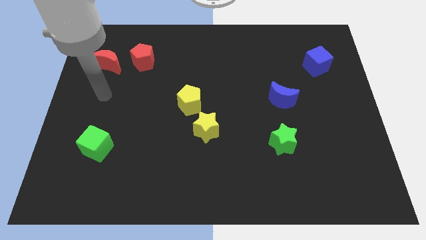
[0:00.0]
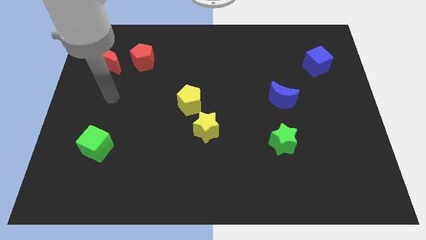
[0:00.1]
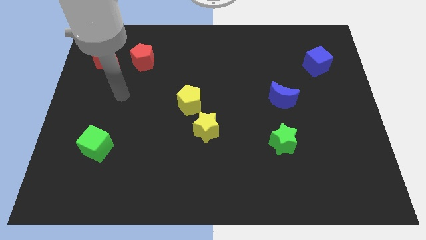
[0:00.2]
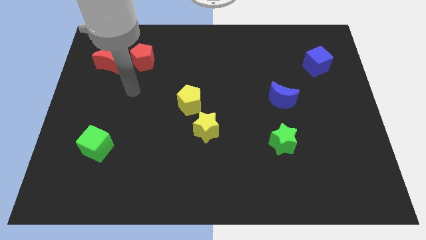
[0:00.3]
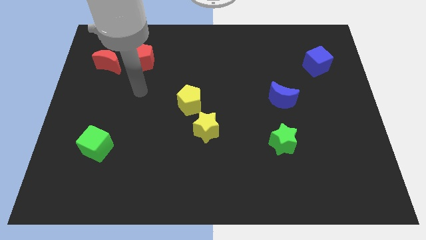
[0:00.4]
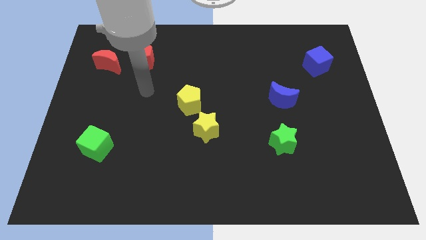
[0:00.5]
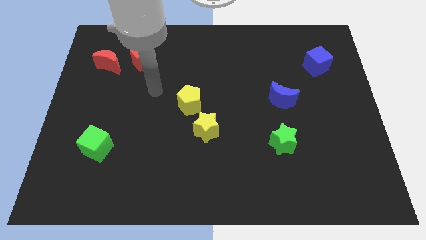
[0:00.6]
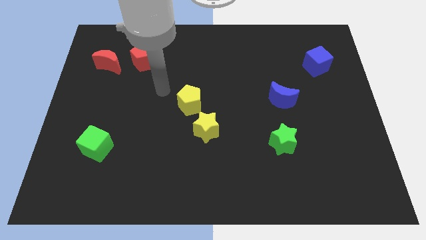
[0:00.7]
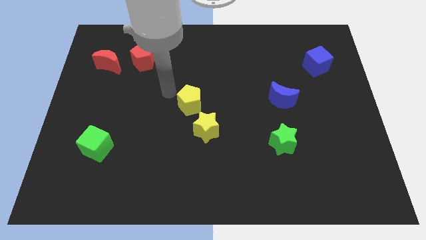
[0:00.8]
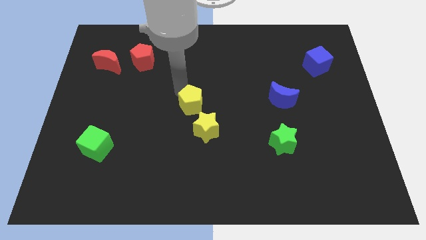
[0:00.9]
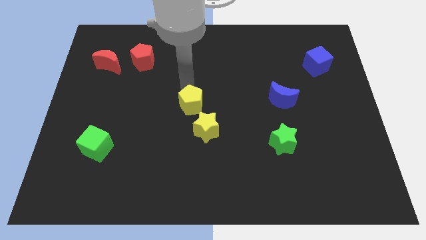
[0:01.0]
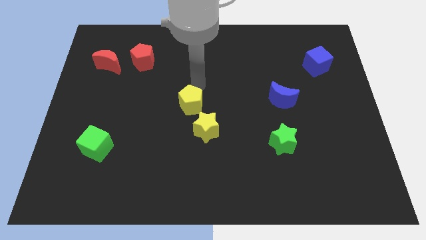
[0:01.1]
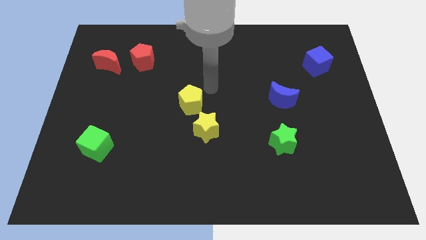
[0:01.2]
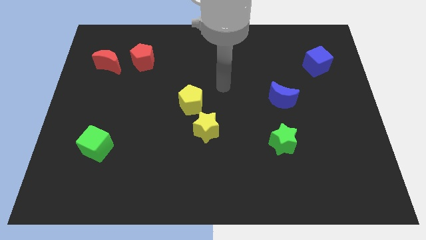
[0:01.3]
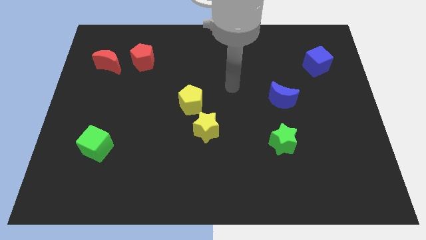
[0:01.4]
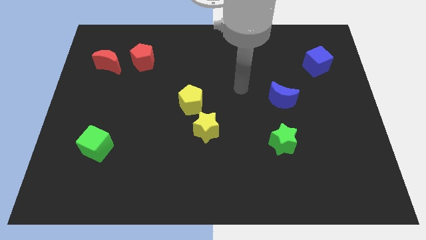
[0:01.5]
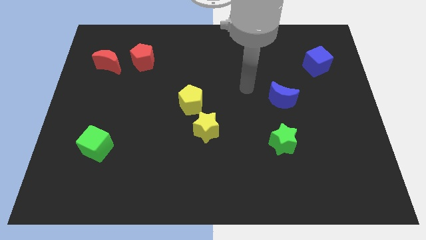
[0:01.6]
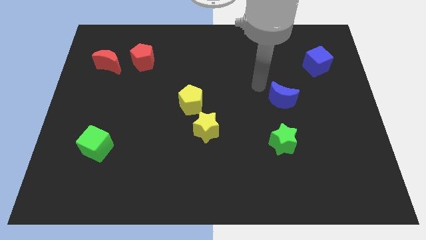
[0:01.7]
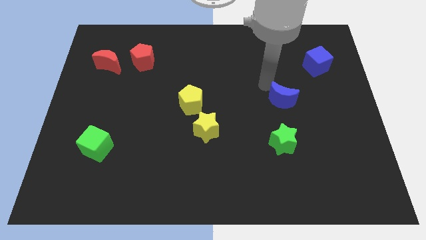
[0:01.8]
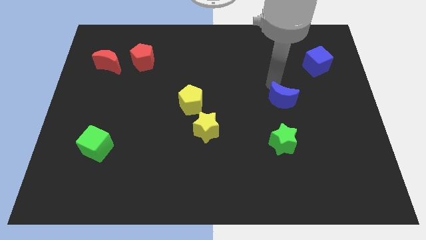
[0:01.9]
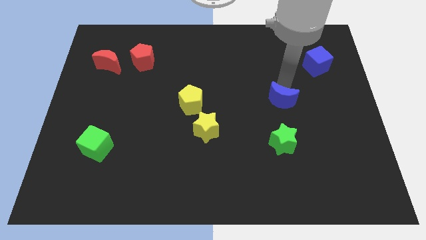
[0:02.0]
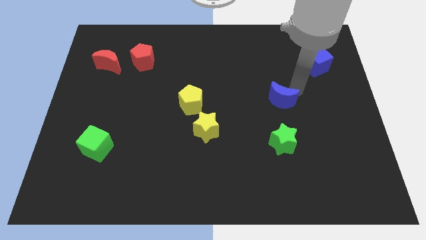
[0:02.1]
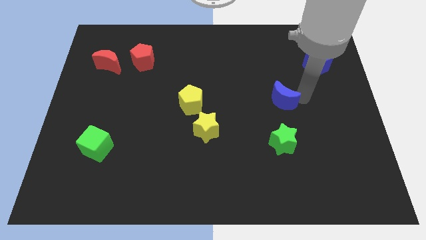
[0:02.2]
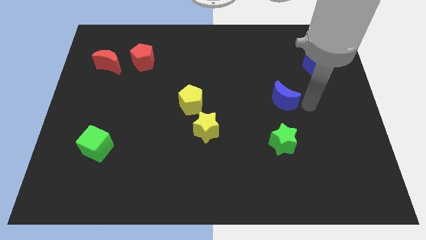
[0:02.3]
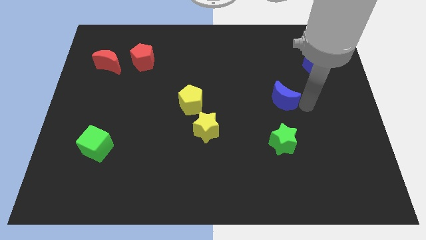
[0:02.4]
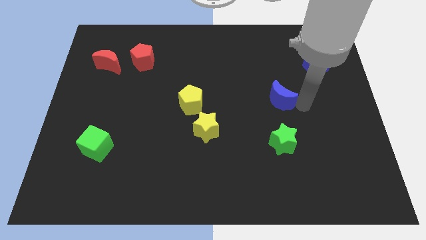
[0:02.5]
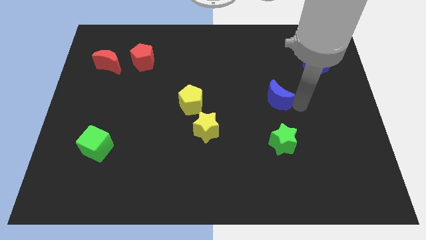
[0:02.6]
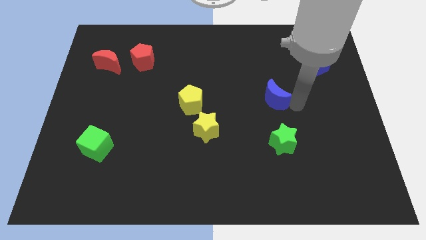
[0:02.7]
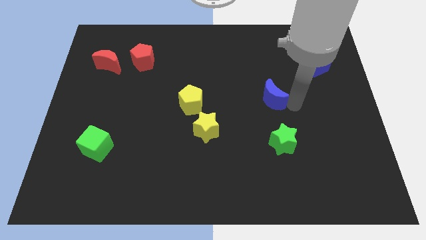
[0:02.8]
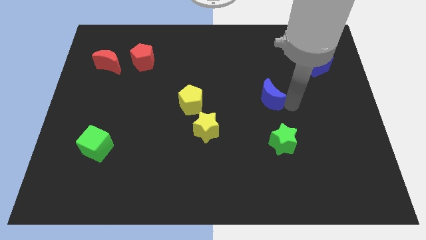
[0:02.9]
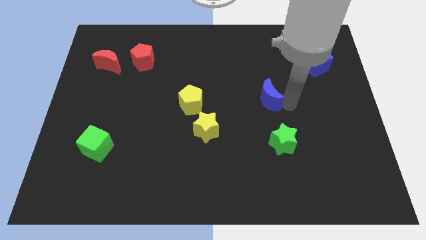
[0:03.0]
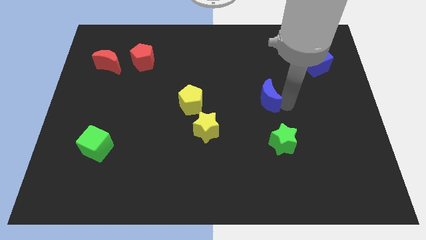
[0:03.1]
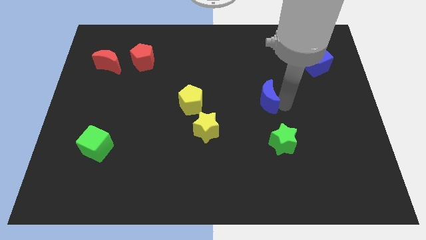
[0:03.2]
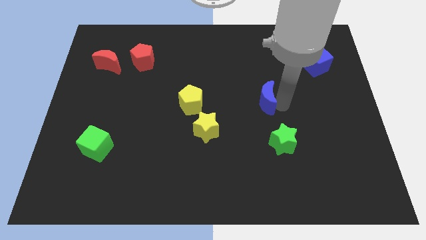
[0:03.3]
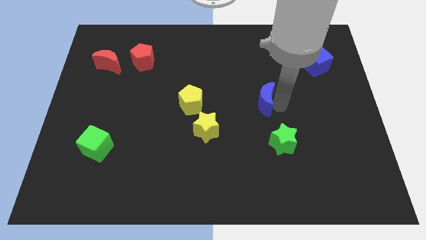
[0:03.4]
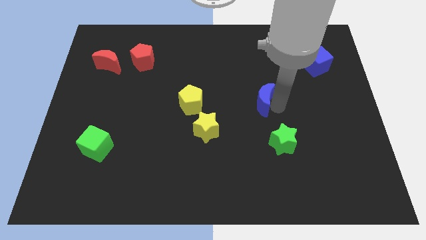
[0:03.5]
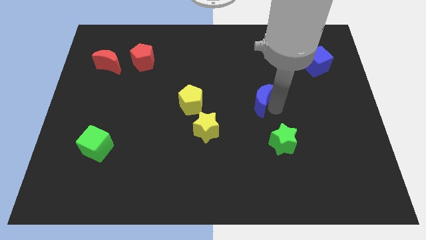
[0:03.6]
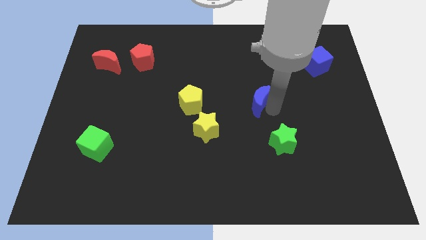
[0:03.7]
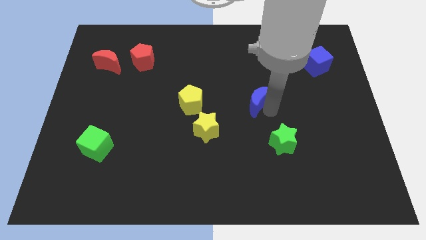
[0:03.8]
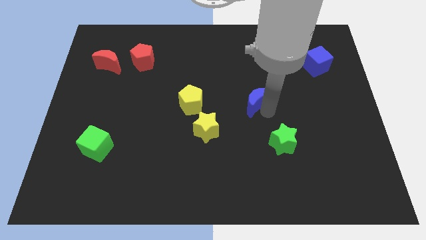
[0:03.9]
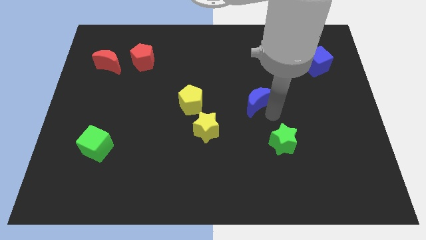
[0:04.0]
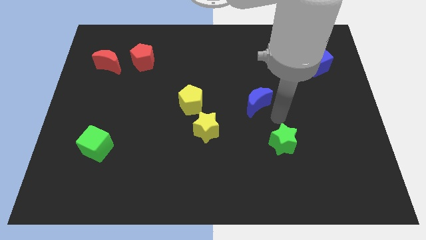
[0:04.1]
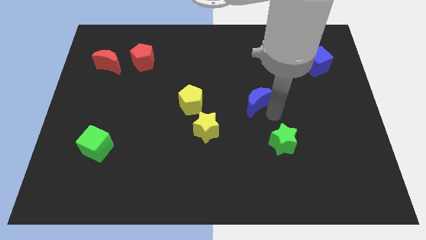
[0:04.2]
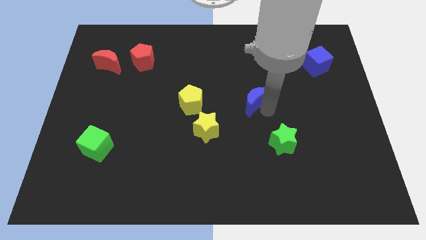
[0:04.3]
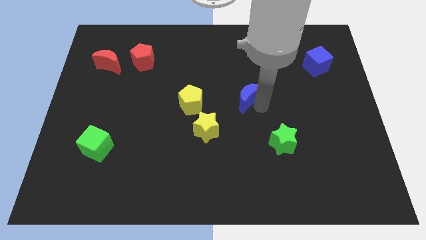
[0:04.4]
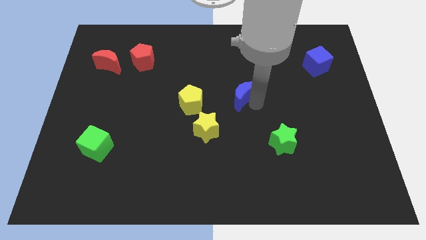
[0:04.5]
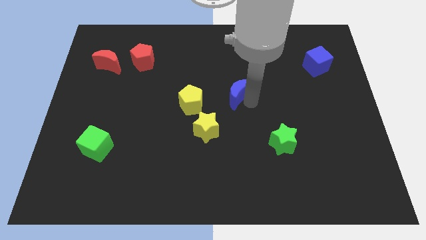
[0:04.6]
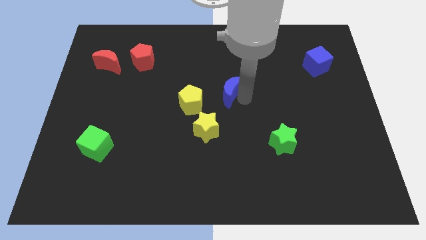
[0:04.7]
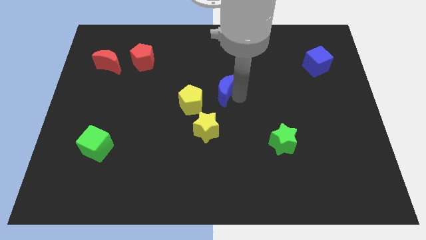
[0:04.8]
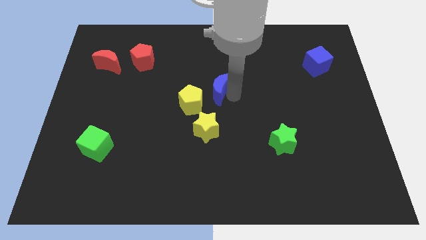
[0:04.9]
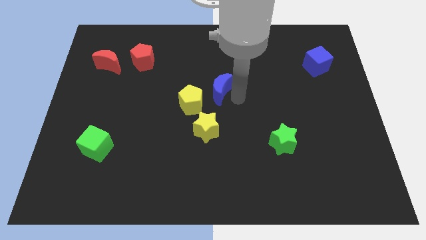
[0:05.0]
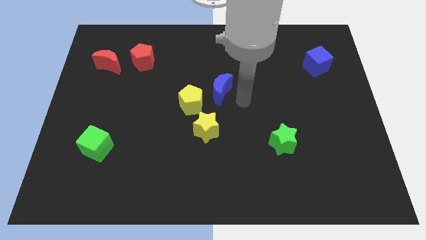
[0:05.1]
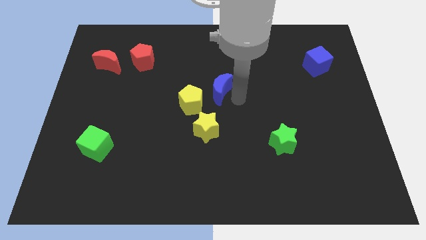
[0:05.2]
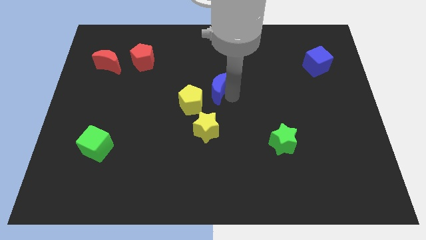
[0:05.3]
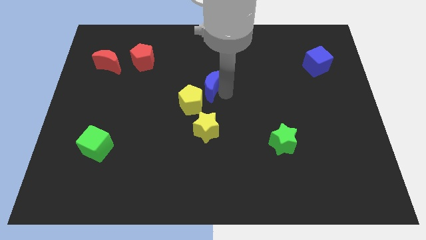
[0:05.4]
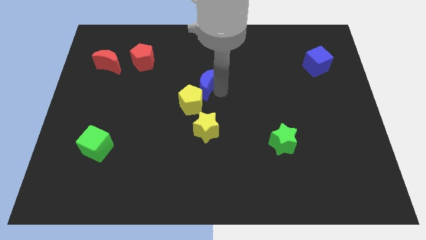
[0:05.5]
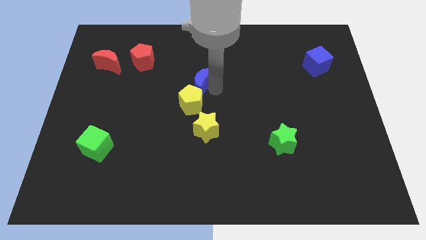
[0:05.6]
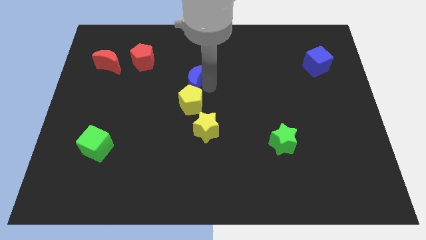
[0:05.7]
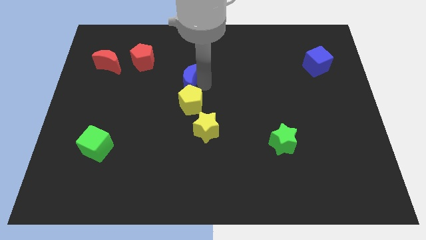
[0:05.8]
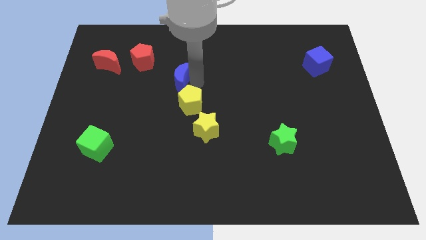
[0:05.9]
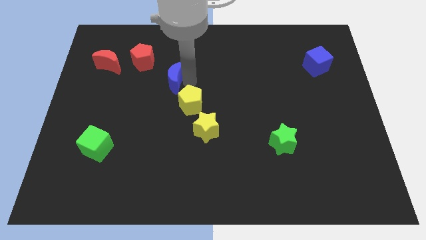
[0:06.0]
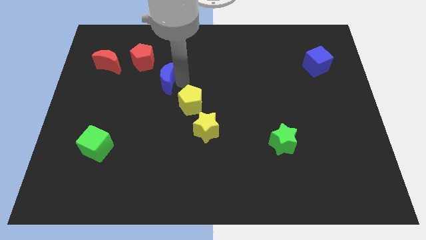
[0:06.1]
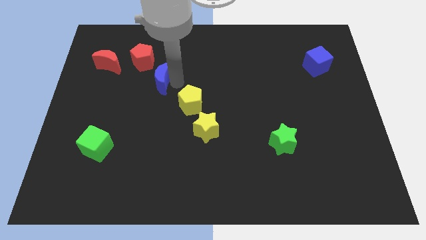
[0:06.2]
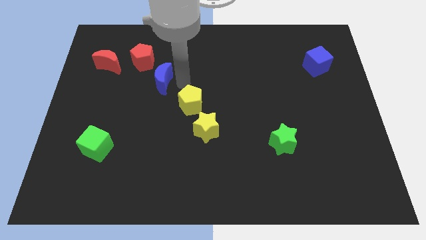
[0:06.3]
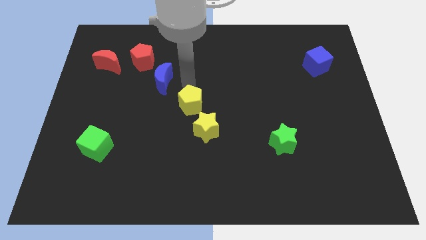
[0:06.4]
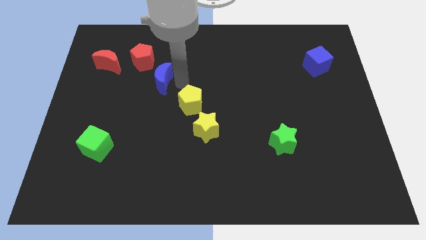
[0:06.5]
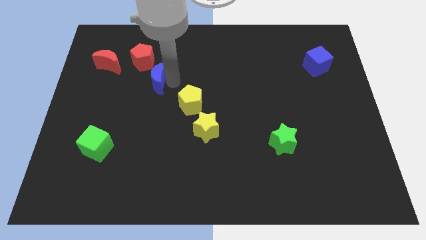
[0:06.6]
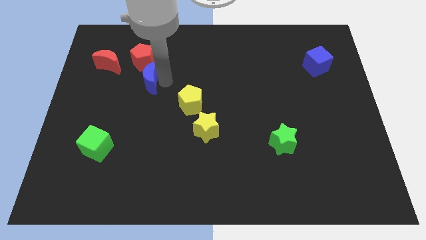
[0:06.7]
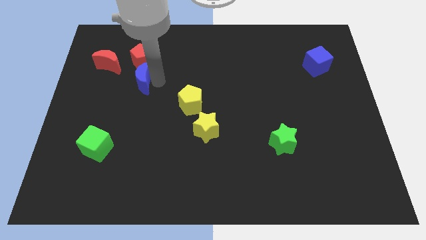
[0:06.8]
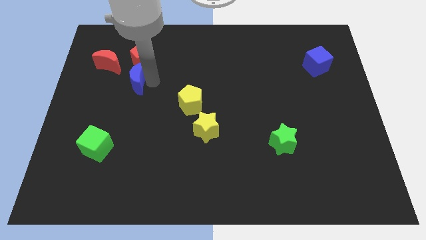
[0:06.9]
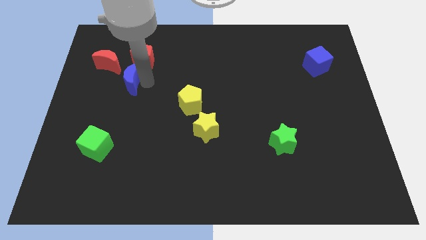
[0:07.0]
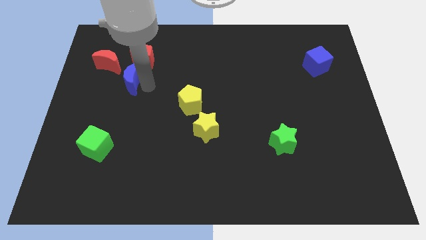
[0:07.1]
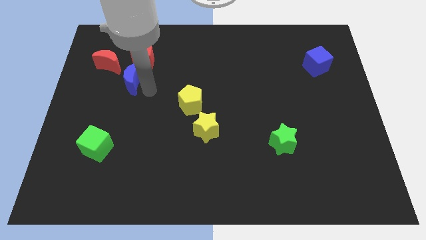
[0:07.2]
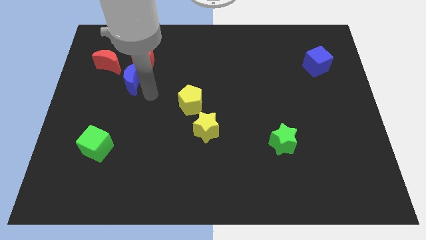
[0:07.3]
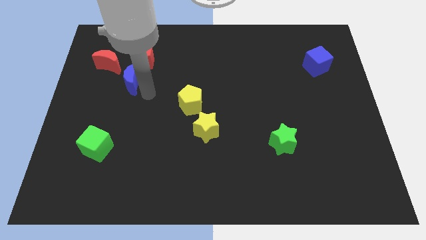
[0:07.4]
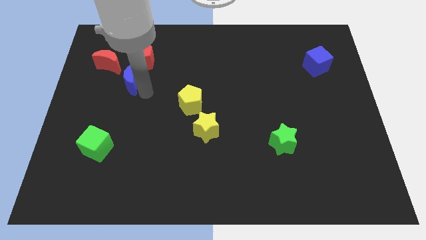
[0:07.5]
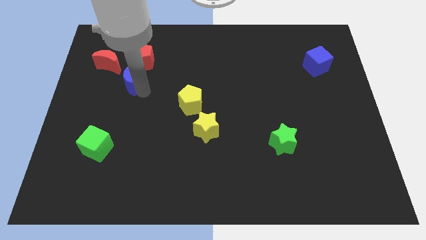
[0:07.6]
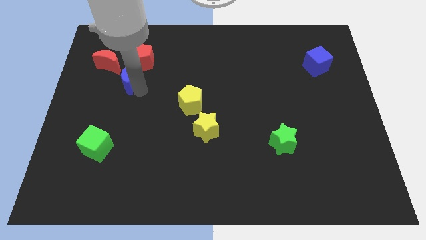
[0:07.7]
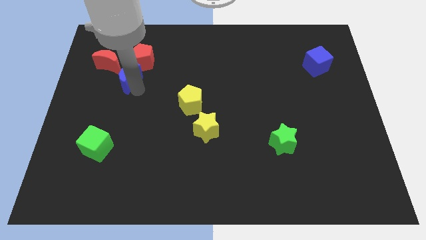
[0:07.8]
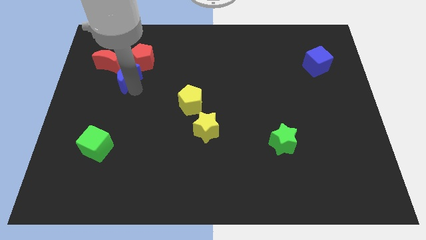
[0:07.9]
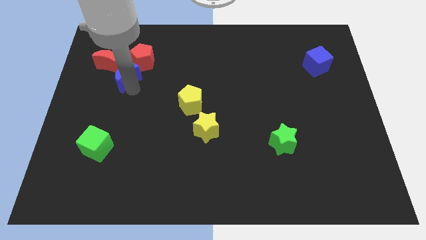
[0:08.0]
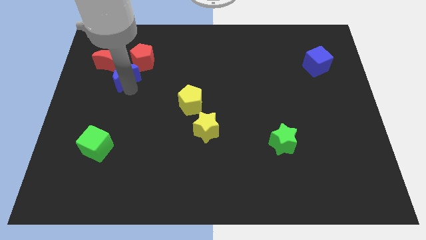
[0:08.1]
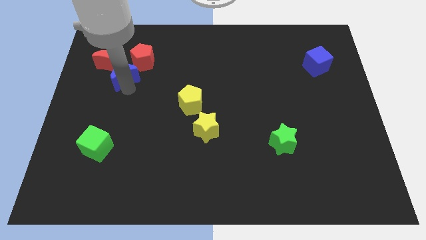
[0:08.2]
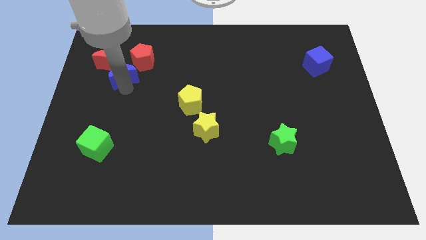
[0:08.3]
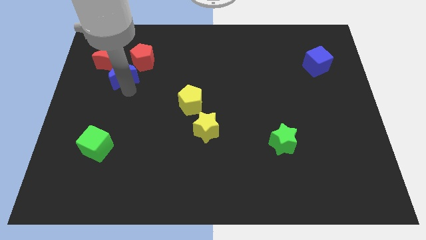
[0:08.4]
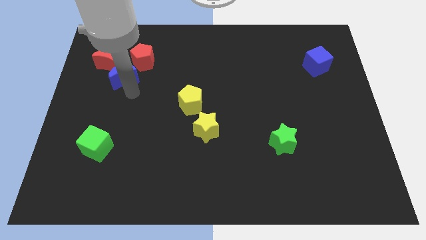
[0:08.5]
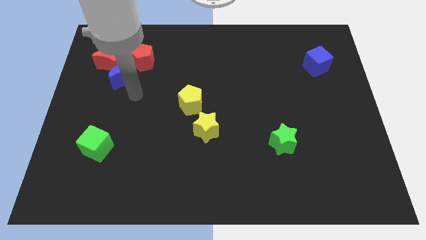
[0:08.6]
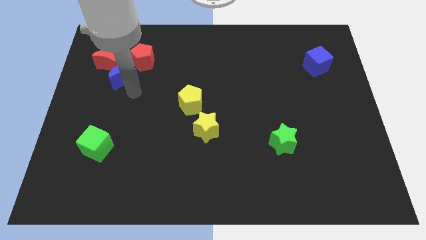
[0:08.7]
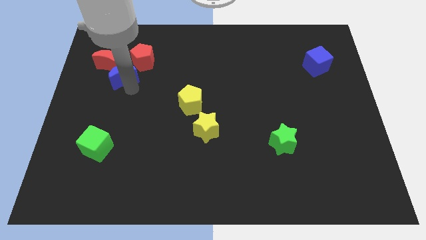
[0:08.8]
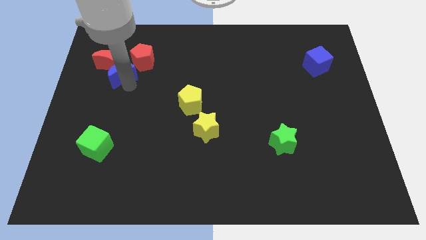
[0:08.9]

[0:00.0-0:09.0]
put the blue moon next to the red moon
